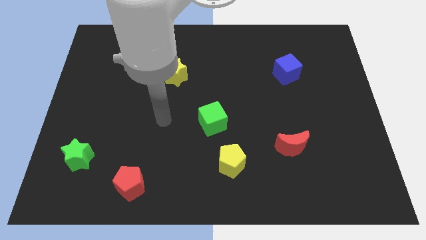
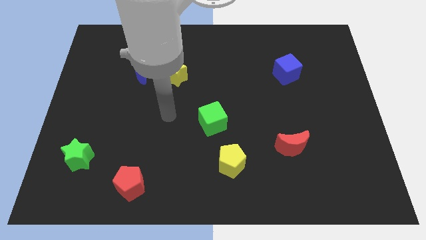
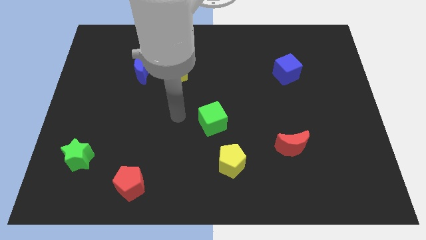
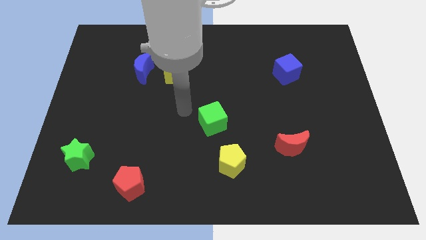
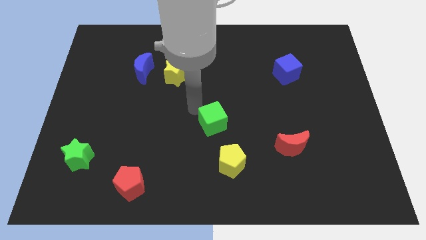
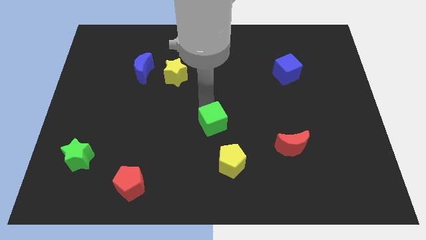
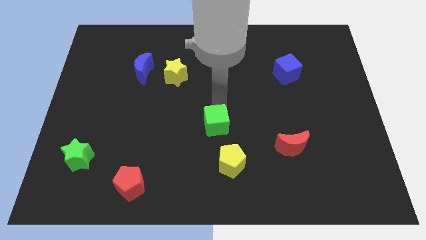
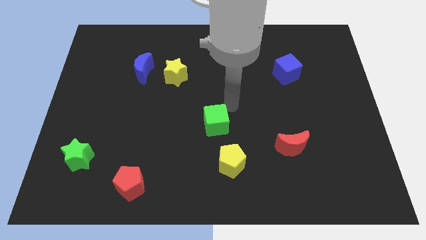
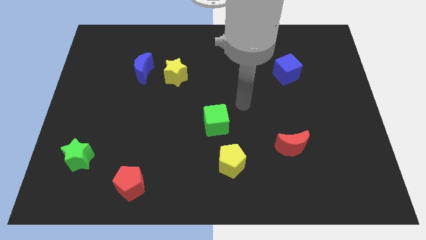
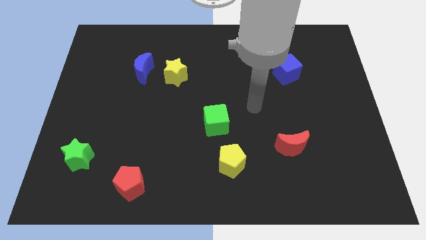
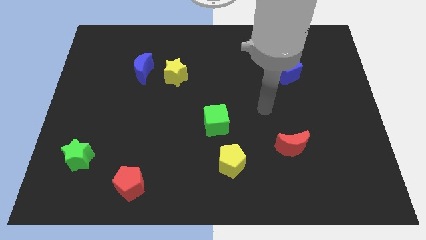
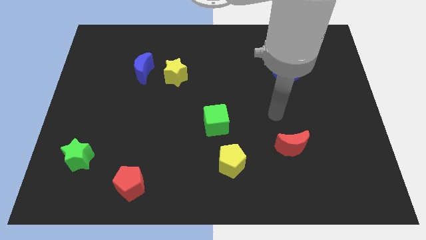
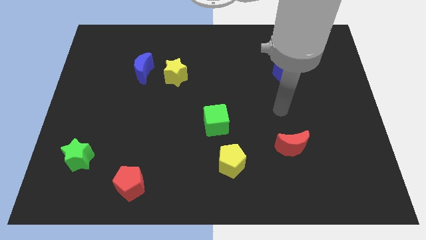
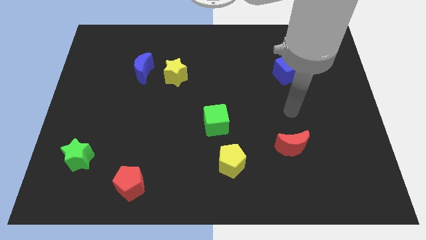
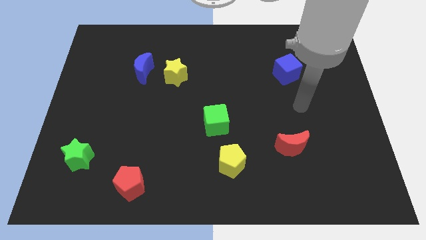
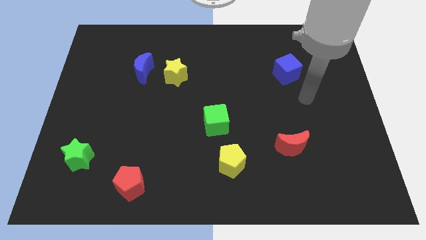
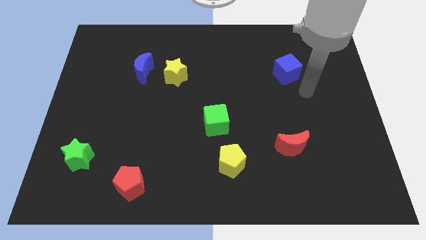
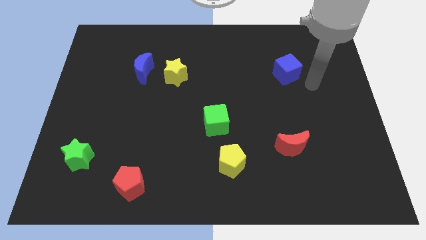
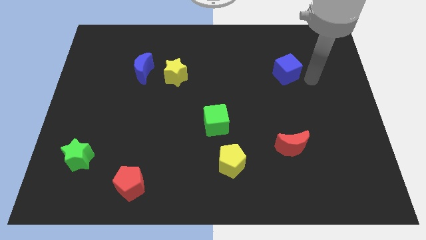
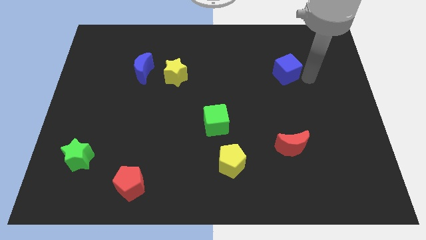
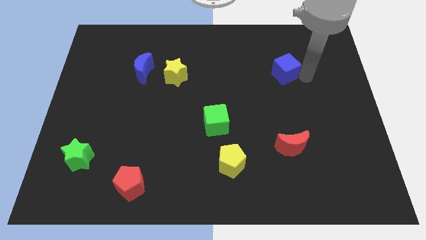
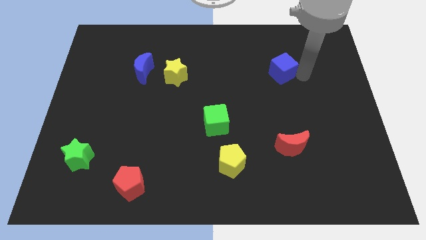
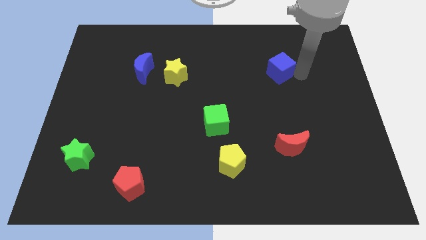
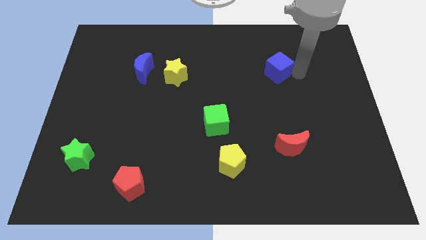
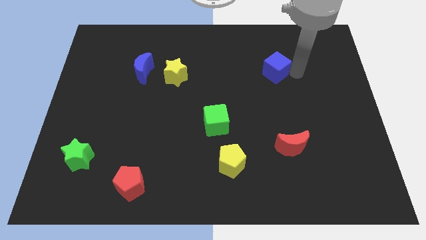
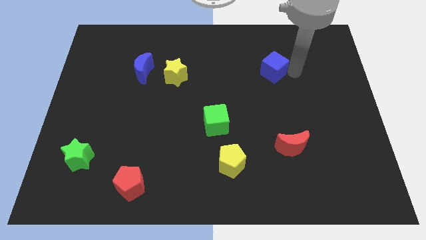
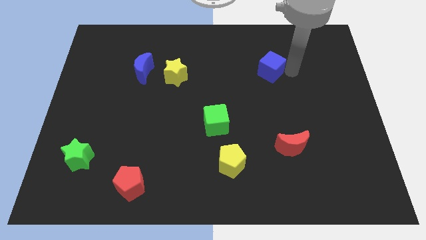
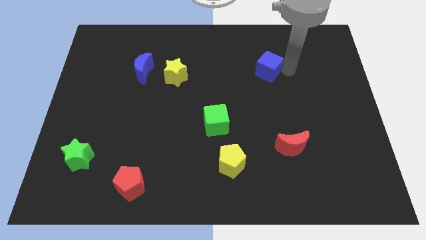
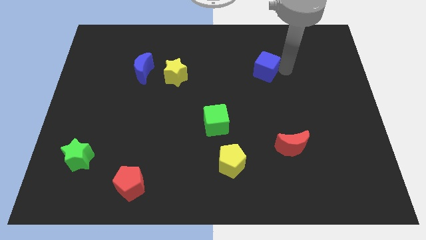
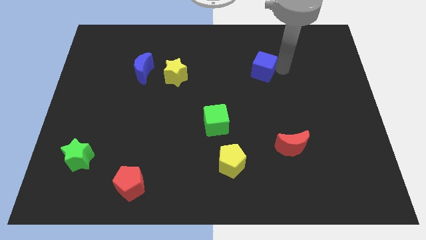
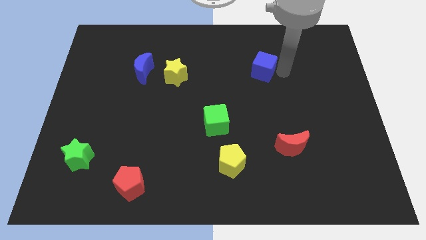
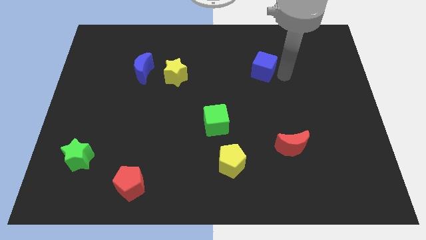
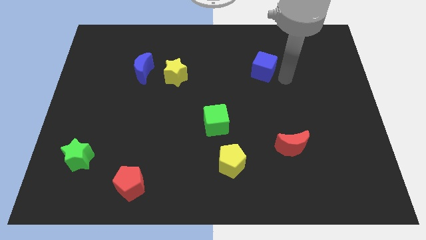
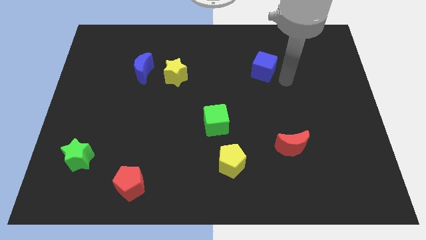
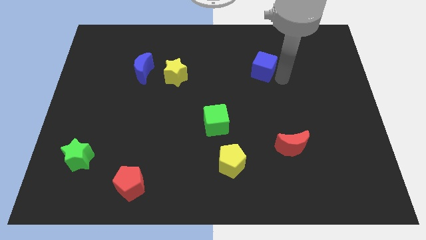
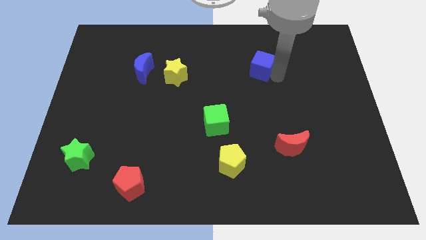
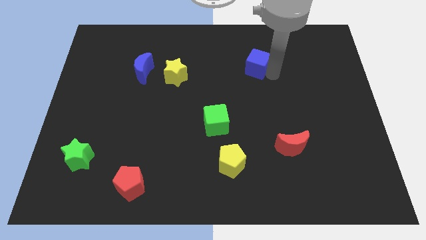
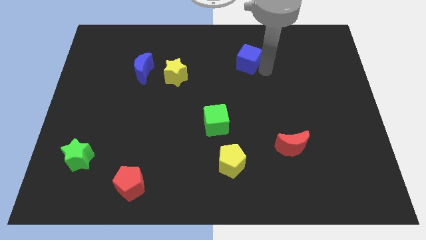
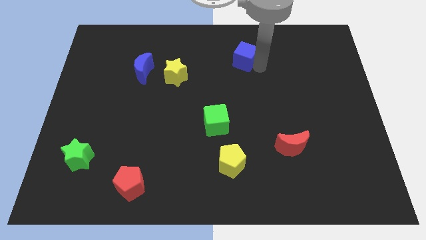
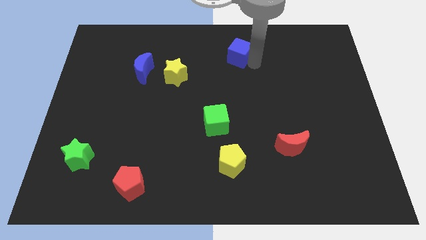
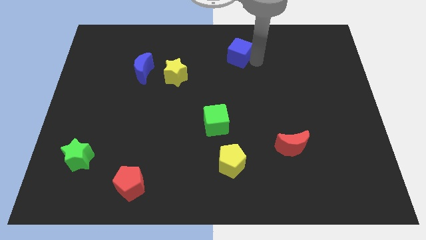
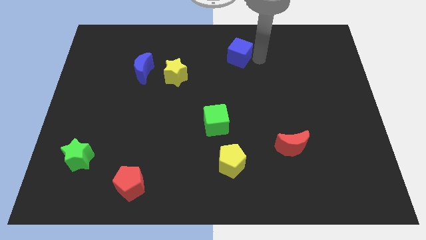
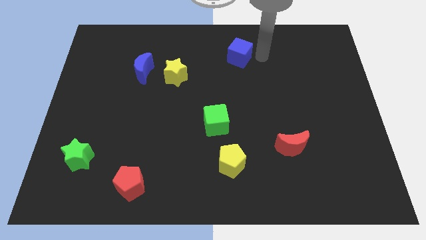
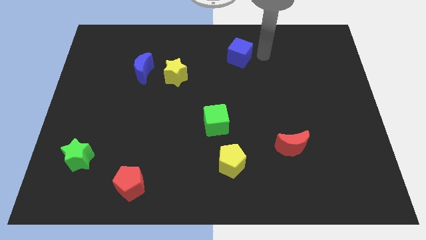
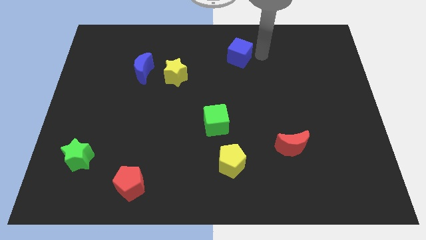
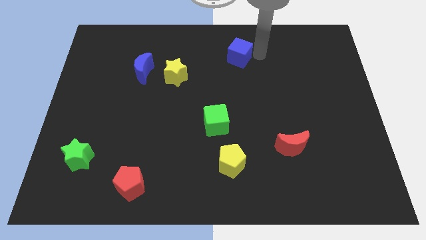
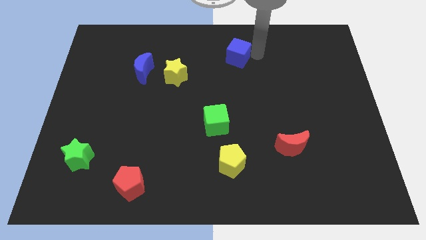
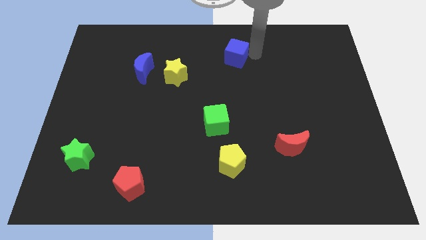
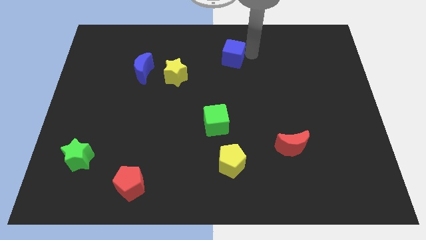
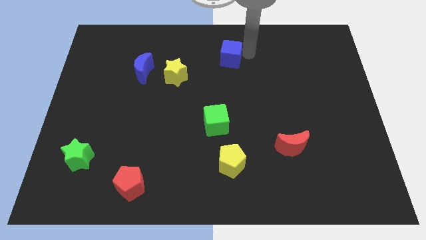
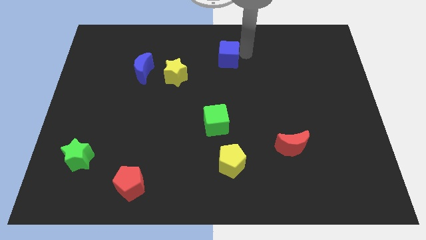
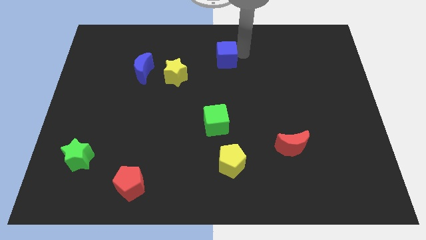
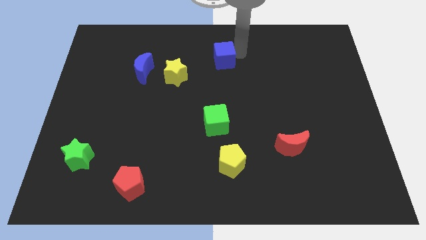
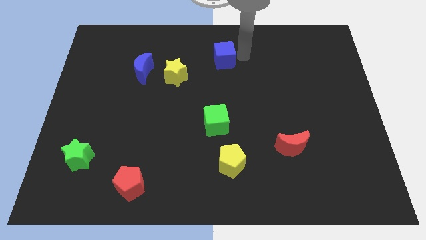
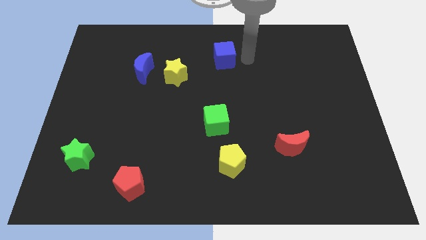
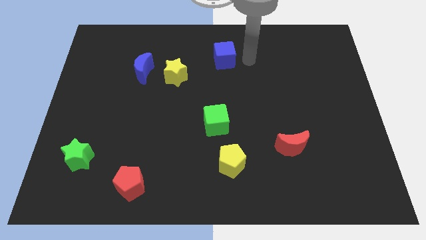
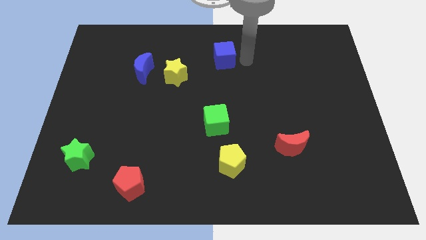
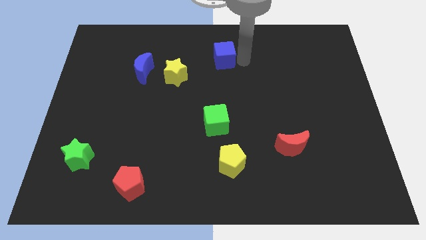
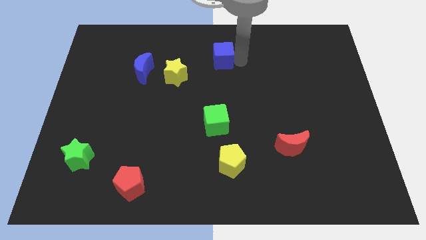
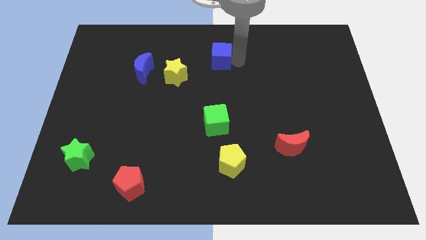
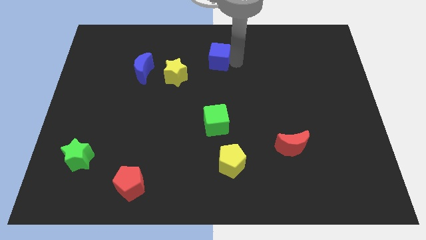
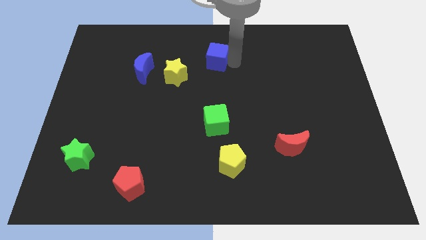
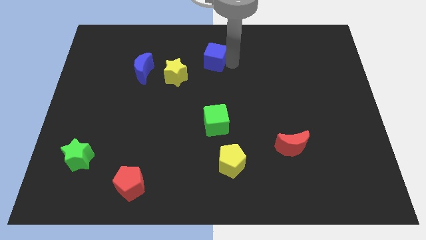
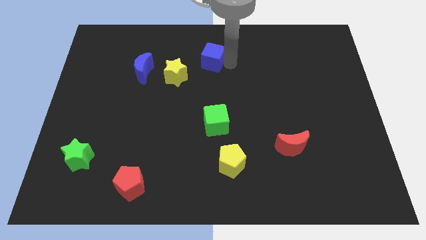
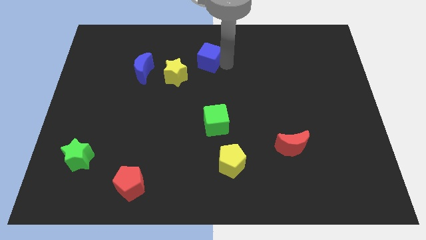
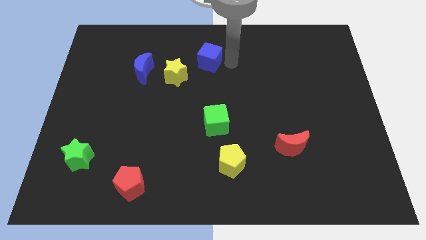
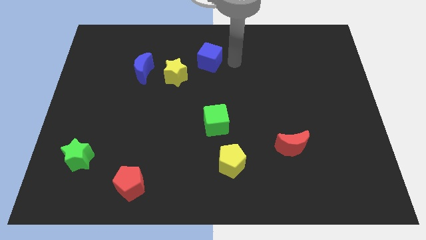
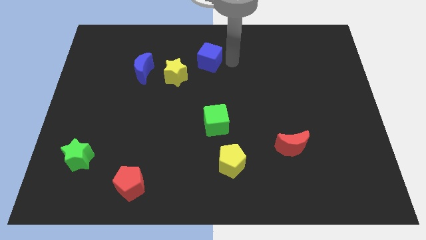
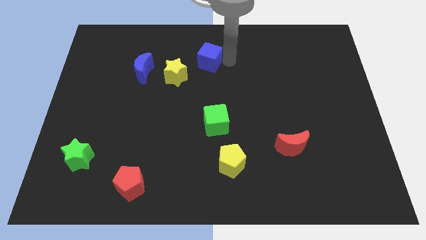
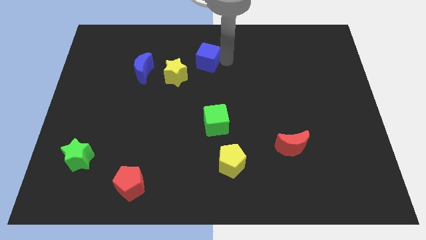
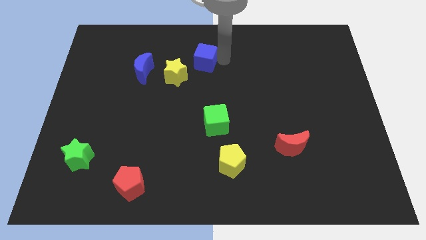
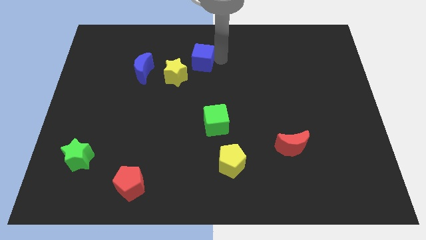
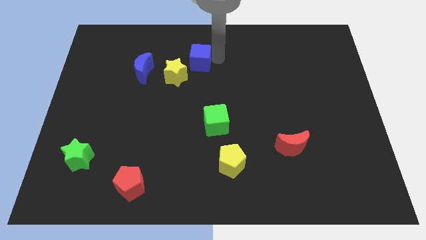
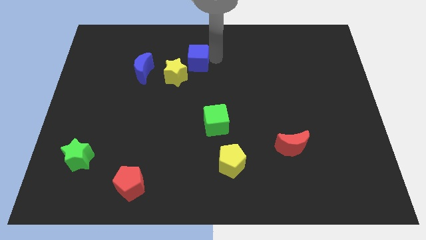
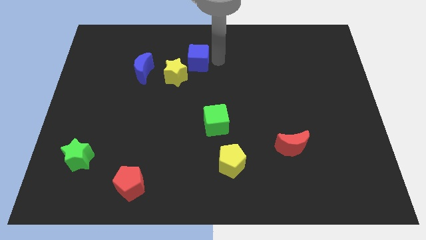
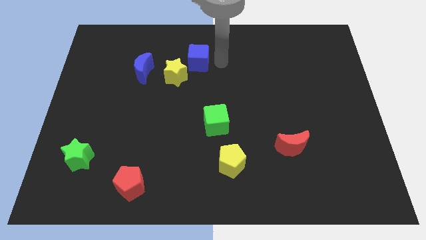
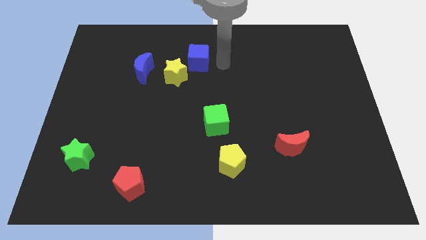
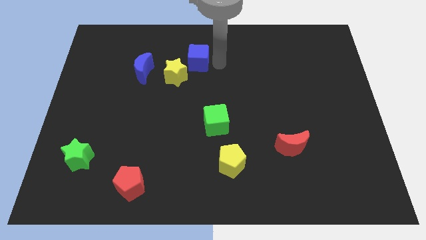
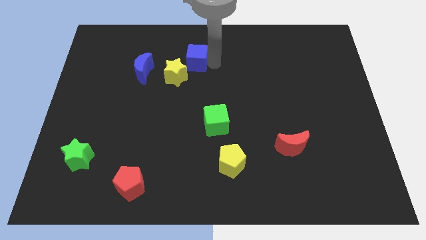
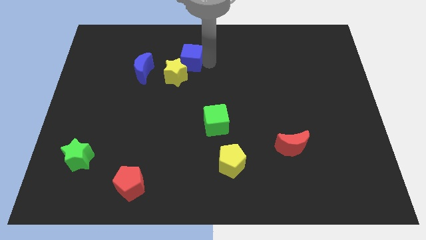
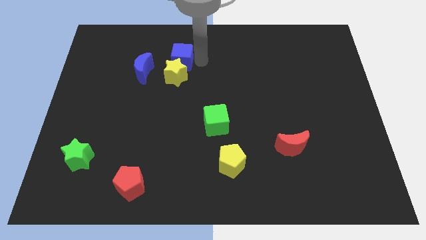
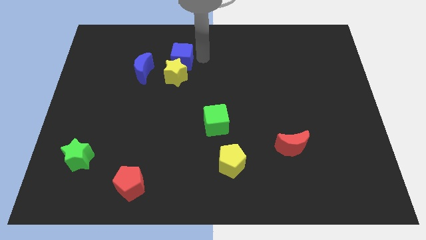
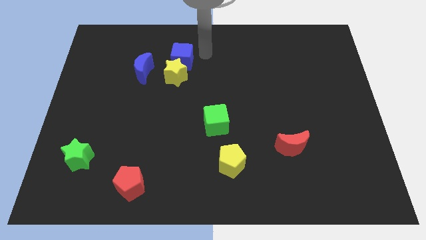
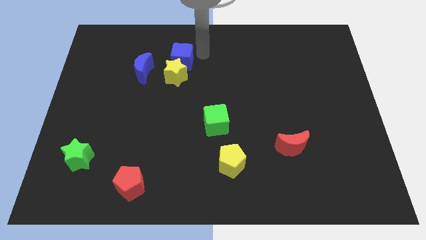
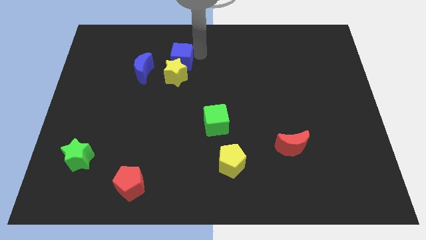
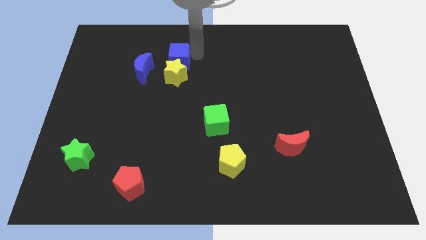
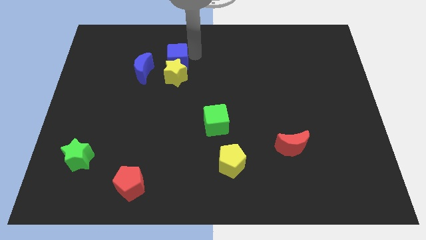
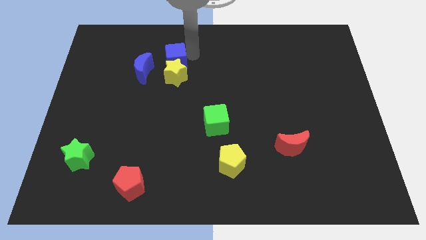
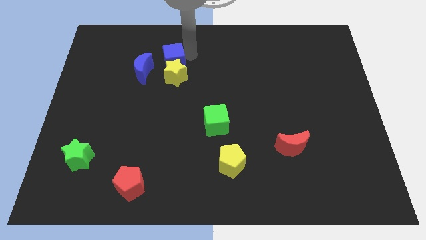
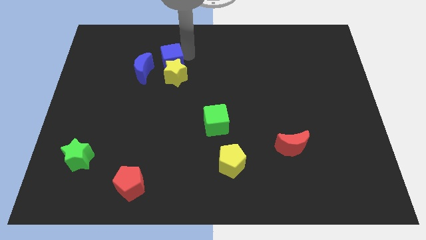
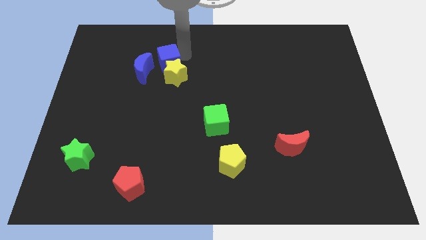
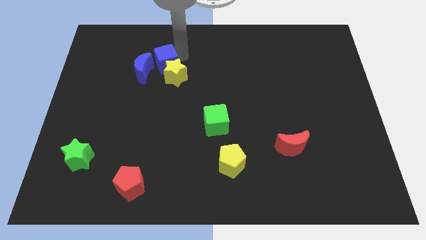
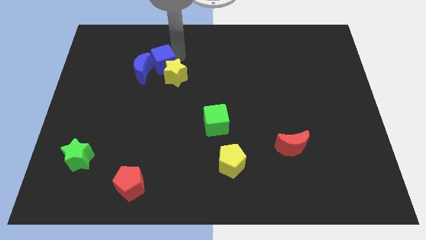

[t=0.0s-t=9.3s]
slide the blue cube towards the blue moon
